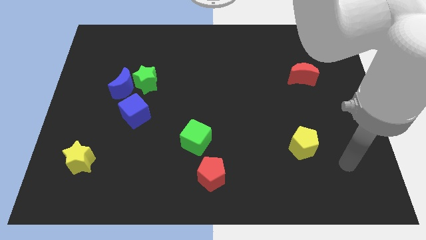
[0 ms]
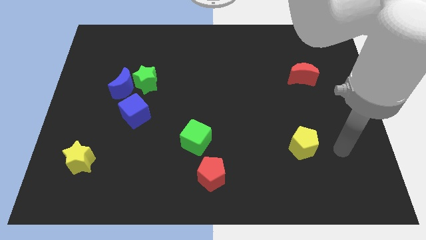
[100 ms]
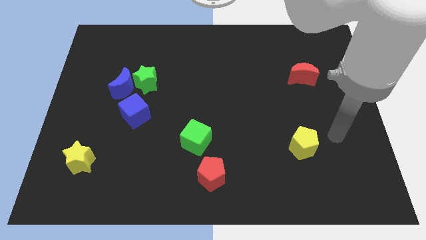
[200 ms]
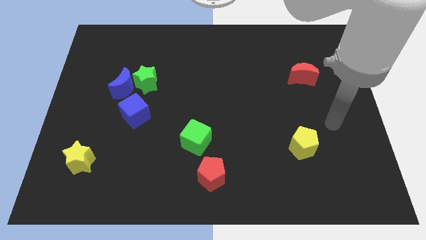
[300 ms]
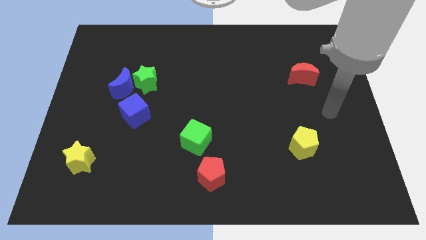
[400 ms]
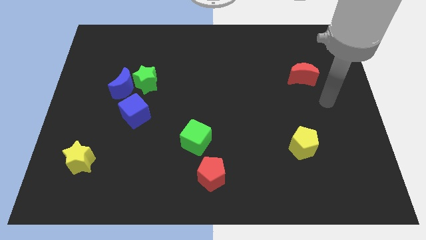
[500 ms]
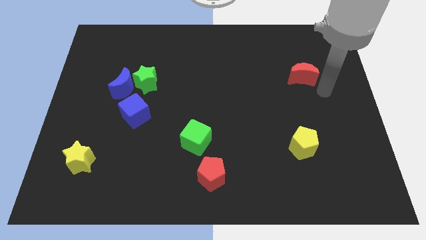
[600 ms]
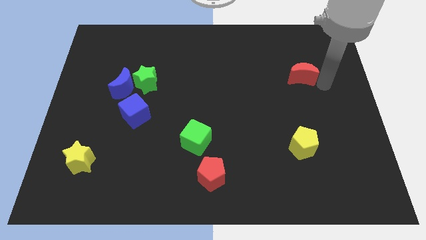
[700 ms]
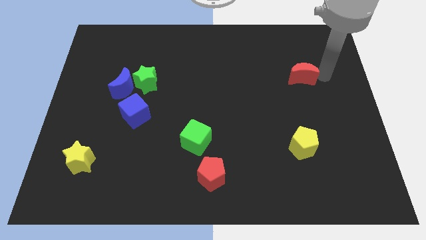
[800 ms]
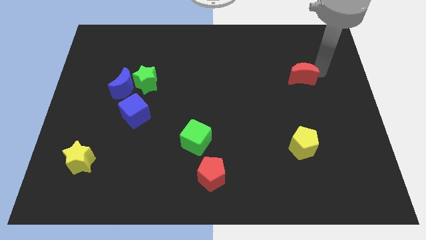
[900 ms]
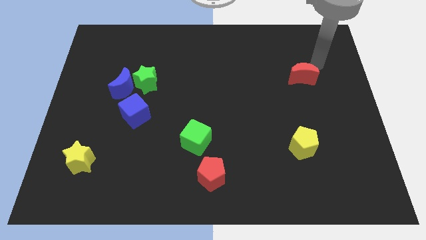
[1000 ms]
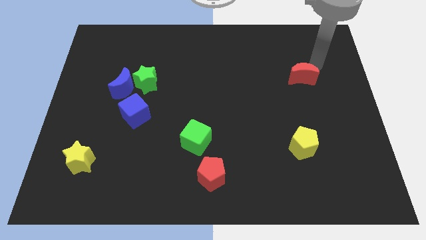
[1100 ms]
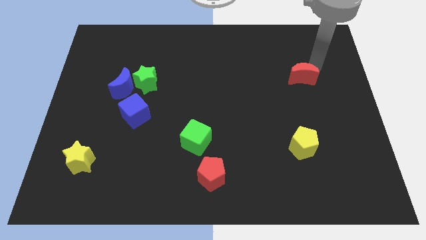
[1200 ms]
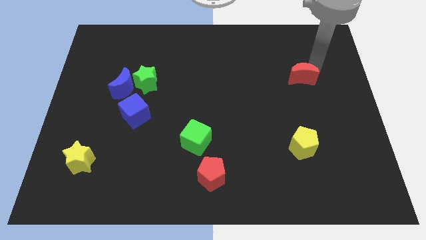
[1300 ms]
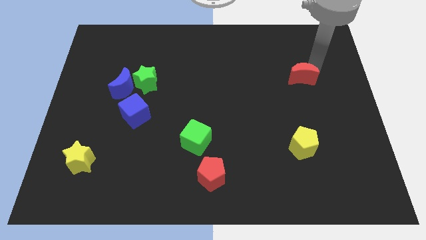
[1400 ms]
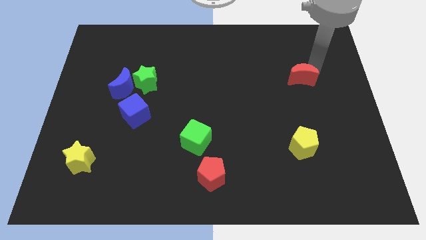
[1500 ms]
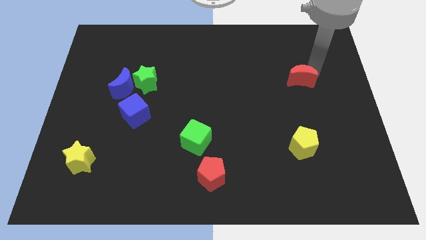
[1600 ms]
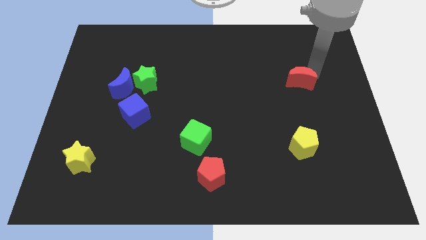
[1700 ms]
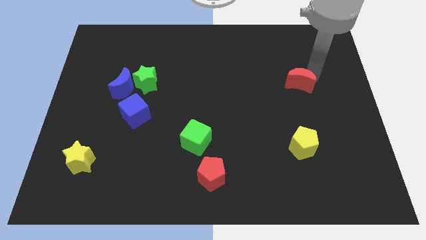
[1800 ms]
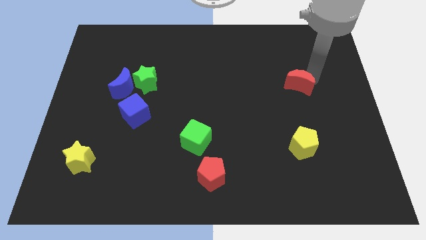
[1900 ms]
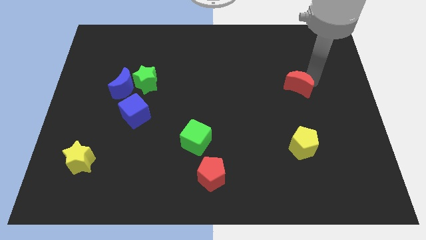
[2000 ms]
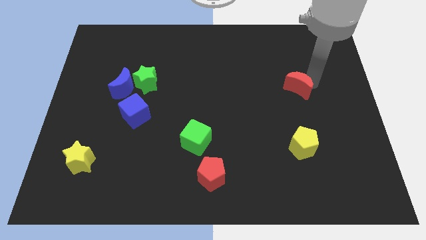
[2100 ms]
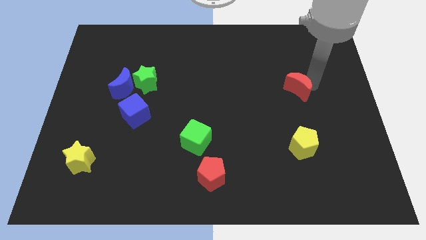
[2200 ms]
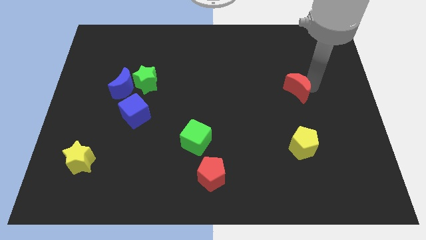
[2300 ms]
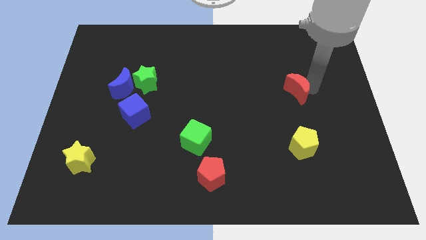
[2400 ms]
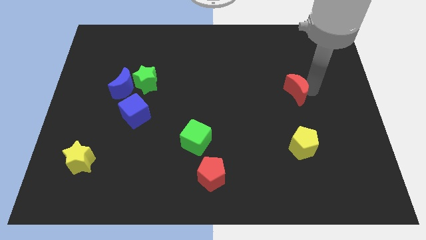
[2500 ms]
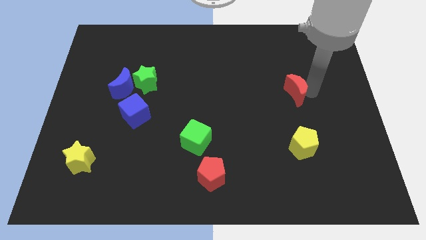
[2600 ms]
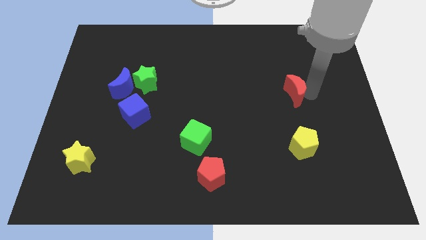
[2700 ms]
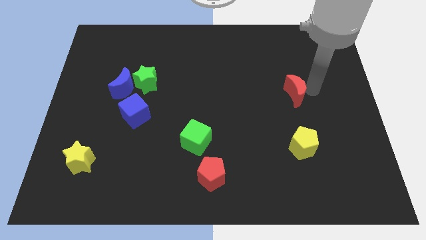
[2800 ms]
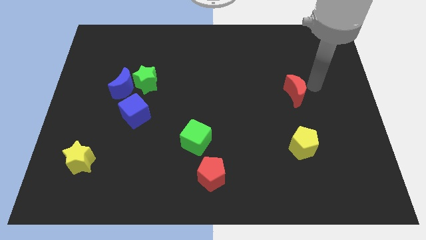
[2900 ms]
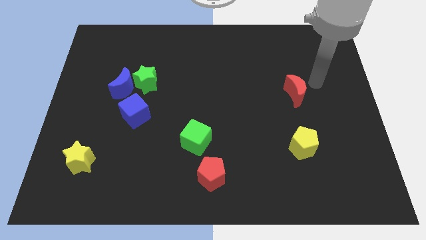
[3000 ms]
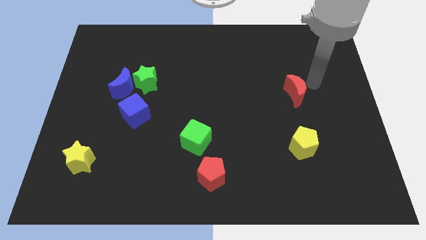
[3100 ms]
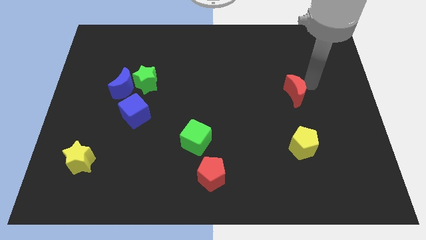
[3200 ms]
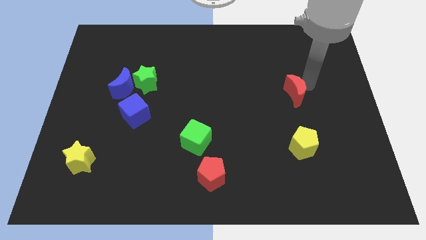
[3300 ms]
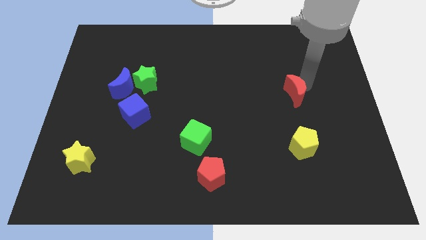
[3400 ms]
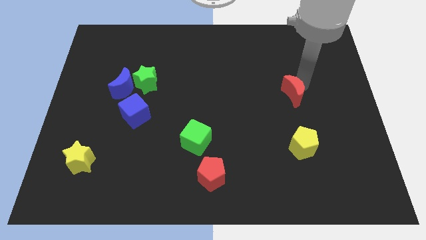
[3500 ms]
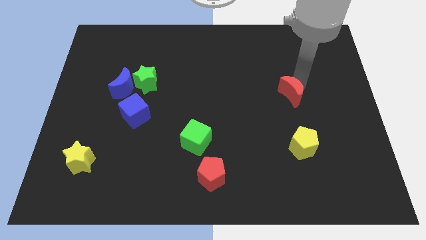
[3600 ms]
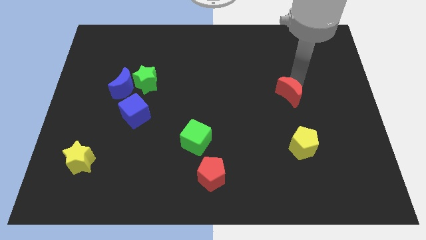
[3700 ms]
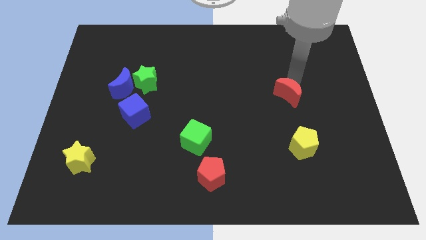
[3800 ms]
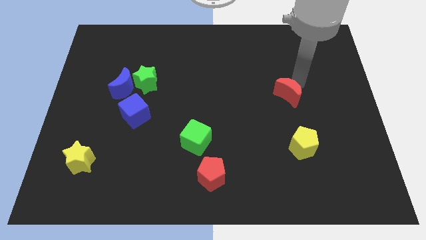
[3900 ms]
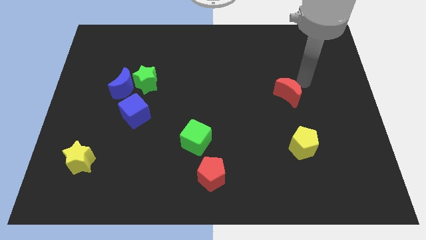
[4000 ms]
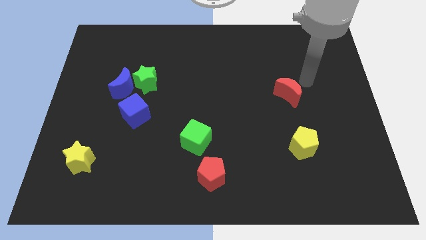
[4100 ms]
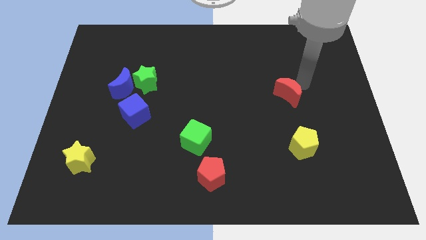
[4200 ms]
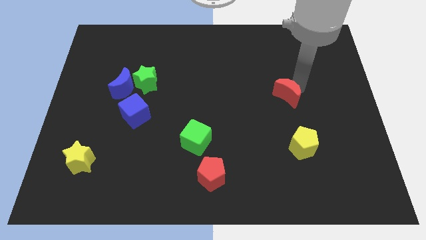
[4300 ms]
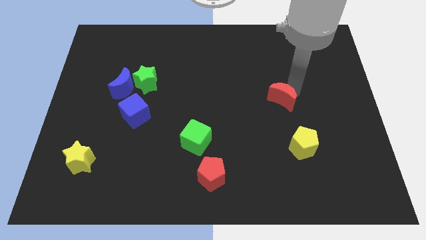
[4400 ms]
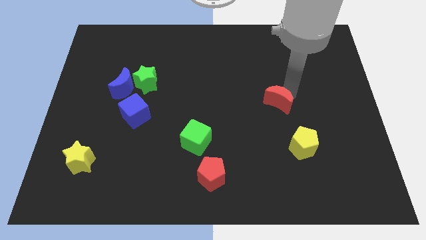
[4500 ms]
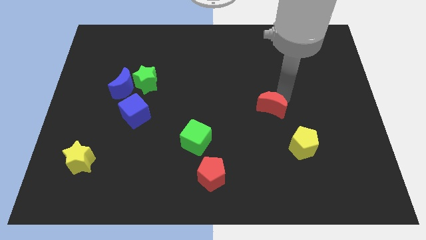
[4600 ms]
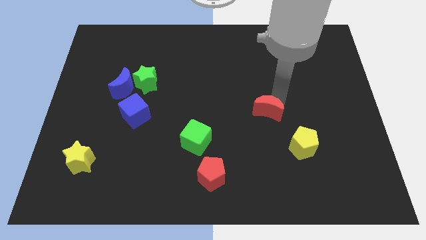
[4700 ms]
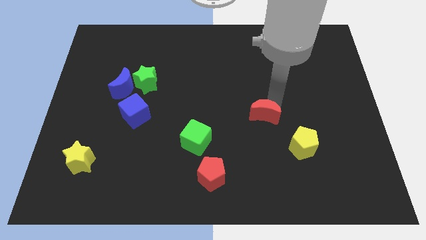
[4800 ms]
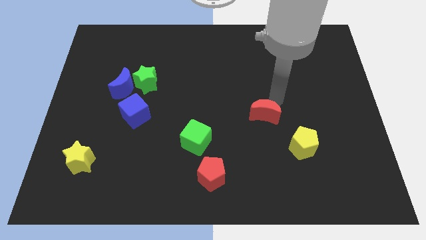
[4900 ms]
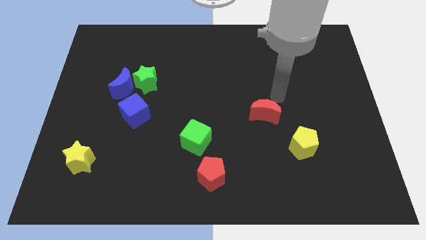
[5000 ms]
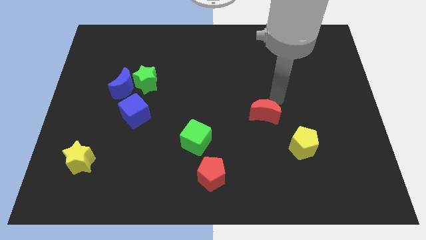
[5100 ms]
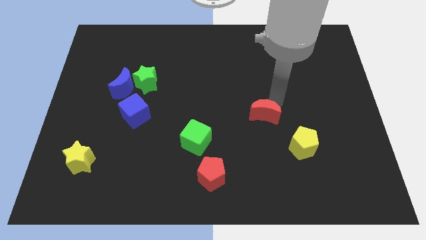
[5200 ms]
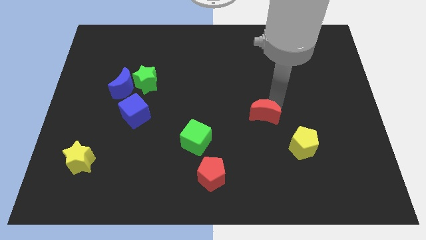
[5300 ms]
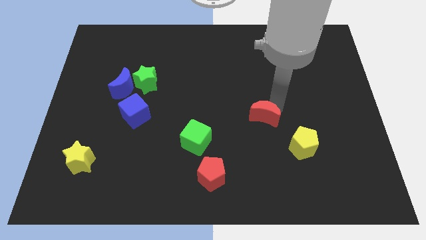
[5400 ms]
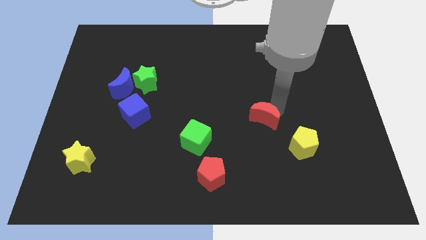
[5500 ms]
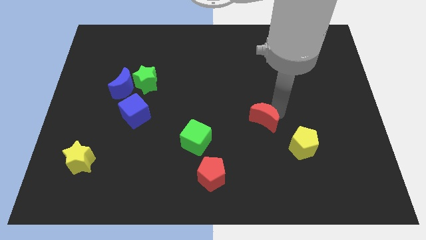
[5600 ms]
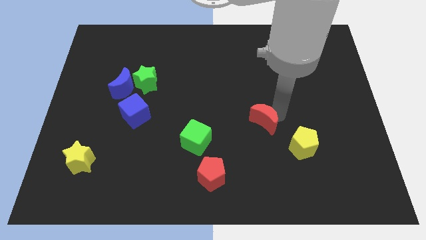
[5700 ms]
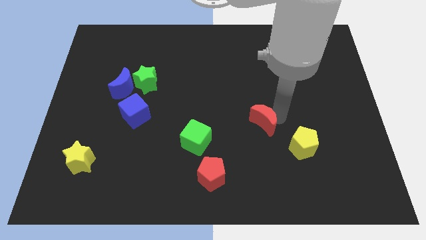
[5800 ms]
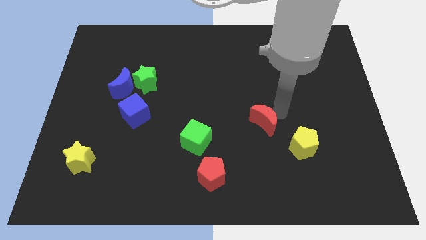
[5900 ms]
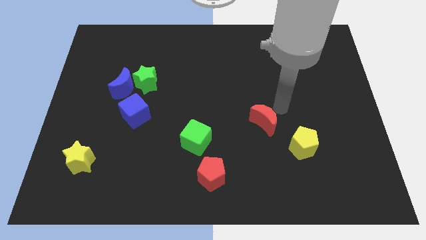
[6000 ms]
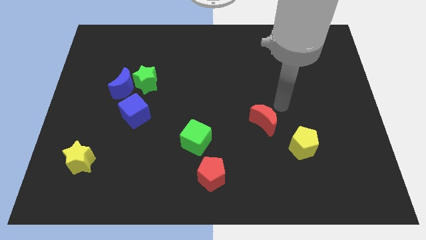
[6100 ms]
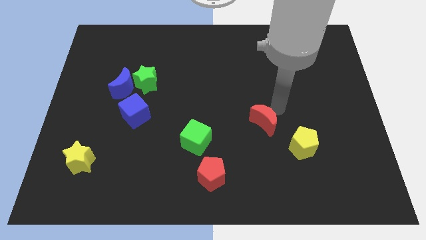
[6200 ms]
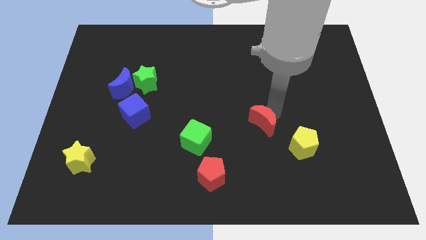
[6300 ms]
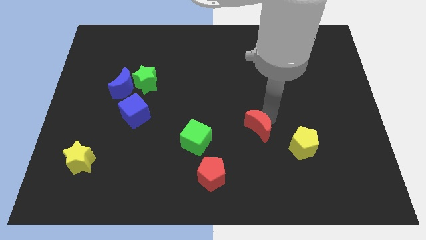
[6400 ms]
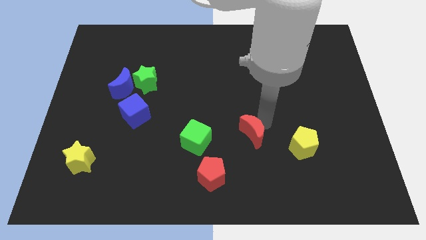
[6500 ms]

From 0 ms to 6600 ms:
push the red moon down and to the left

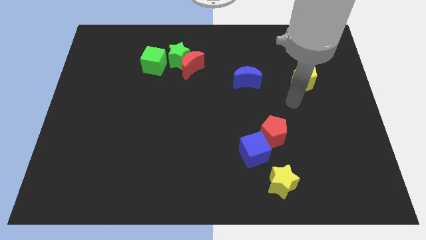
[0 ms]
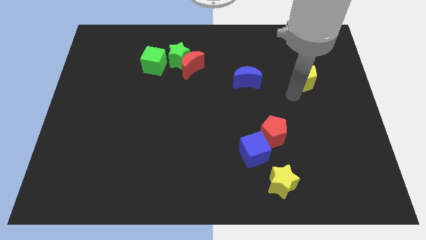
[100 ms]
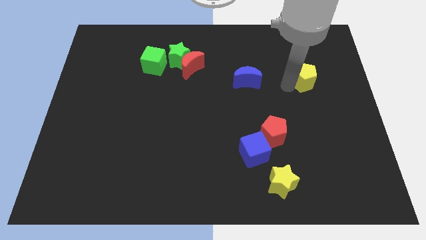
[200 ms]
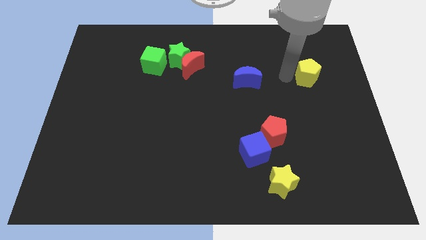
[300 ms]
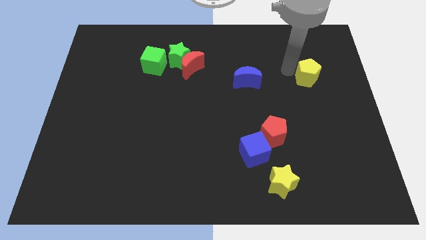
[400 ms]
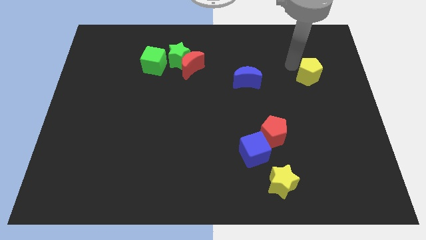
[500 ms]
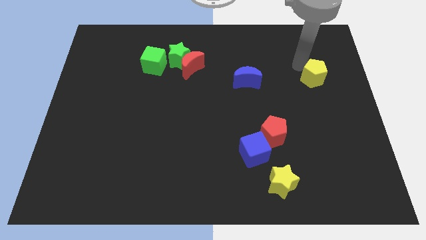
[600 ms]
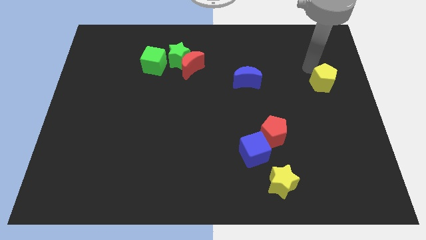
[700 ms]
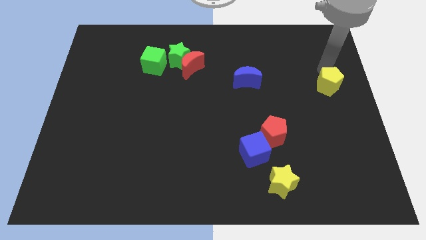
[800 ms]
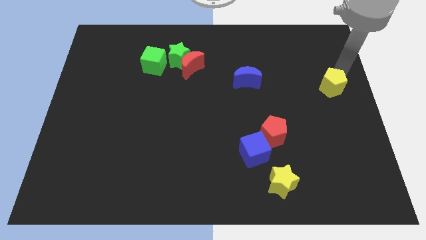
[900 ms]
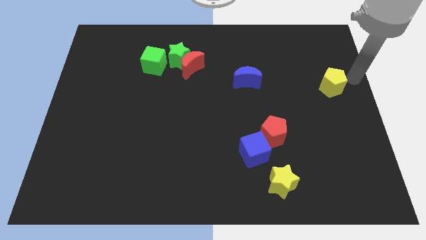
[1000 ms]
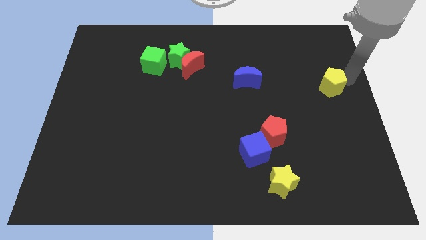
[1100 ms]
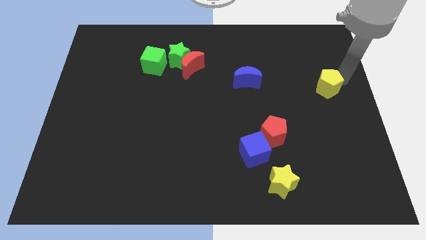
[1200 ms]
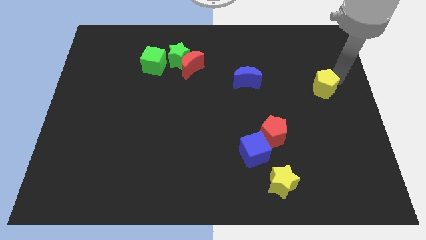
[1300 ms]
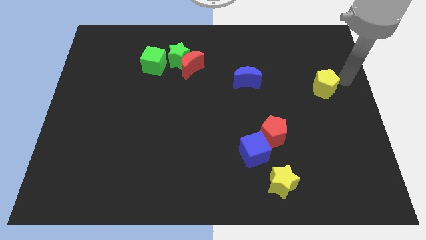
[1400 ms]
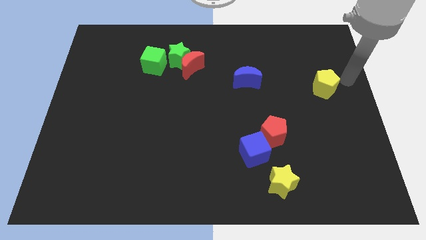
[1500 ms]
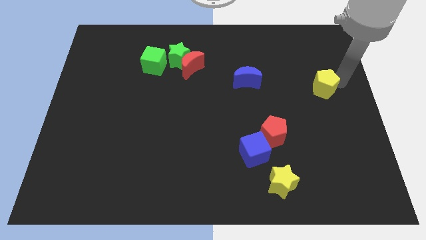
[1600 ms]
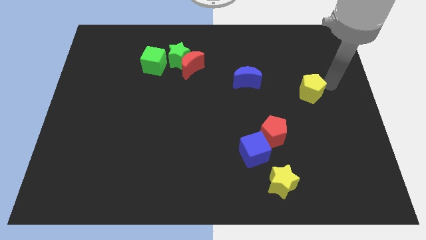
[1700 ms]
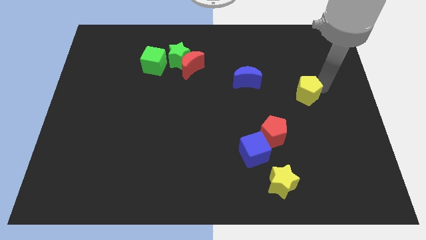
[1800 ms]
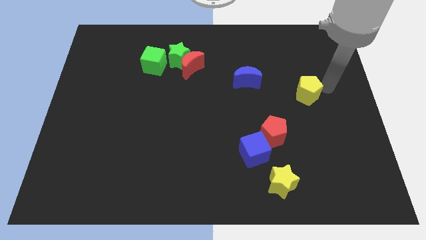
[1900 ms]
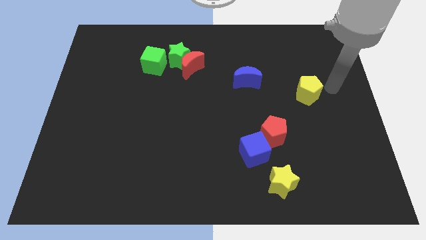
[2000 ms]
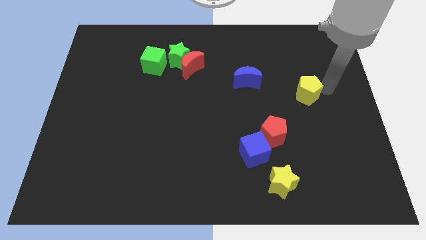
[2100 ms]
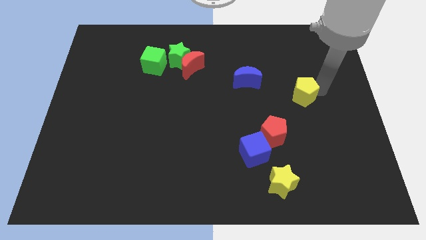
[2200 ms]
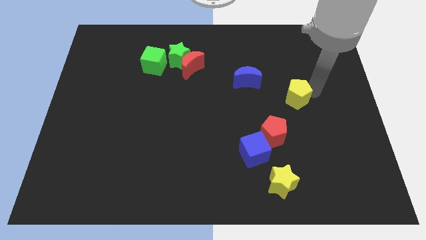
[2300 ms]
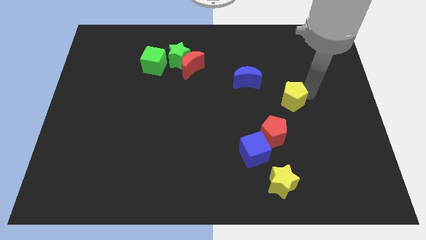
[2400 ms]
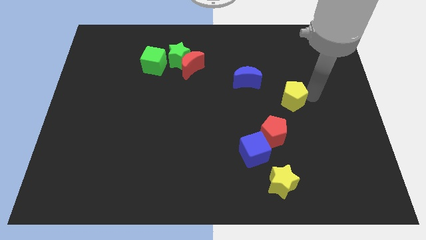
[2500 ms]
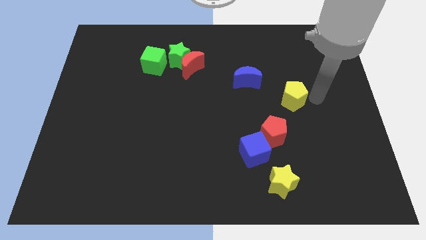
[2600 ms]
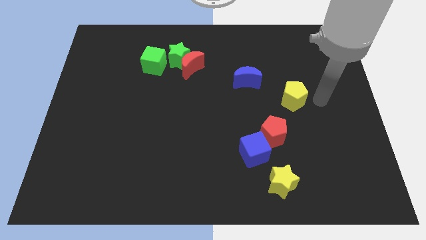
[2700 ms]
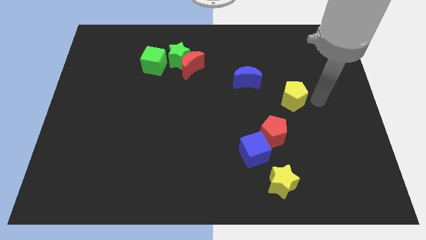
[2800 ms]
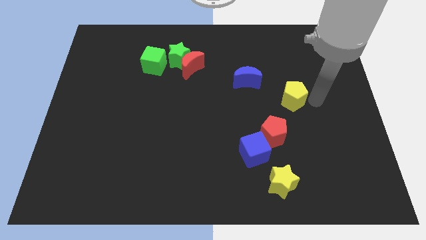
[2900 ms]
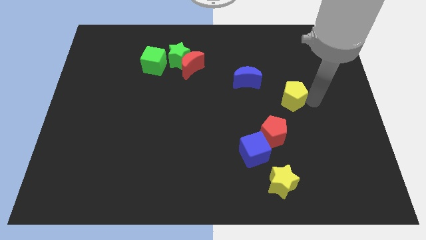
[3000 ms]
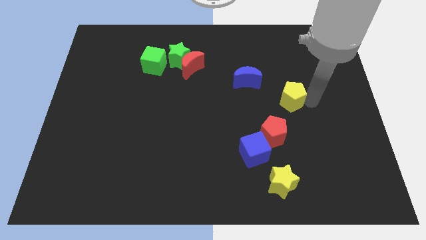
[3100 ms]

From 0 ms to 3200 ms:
push the yellow pentagon a bit diagonally down and left
